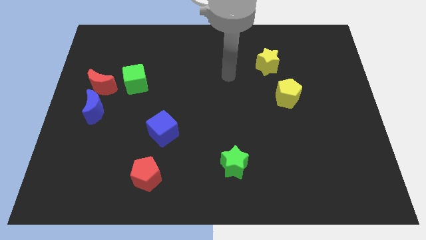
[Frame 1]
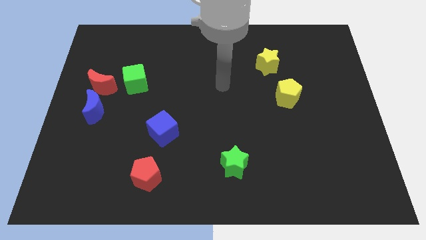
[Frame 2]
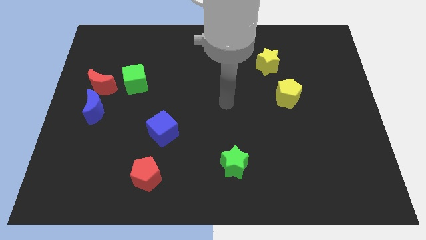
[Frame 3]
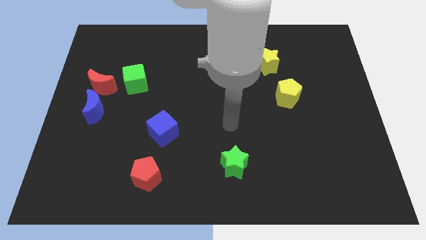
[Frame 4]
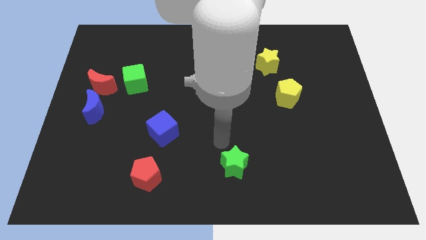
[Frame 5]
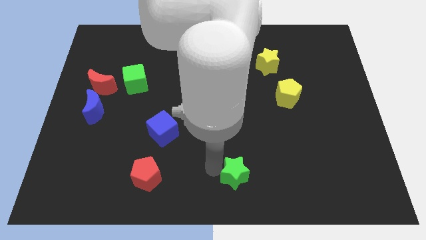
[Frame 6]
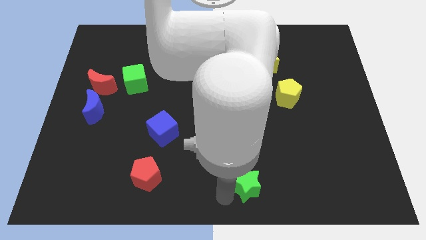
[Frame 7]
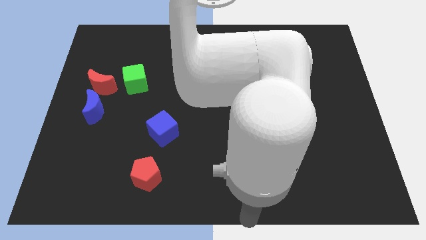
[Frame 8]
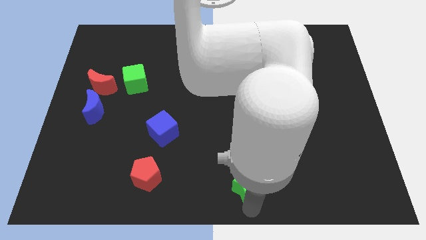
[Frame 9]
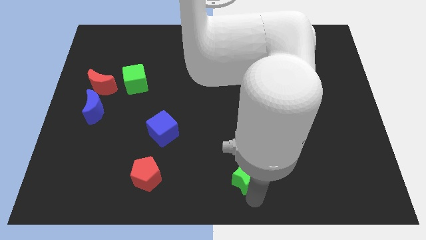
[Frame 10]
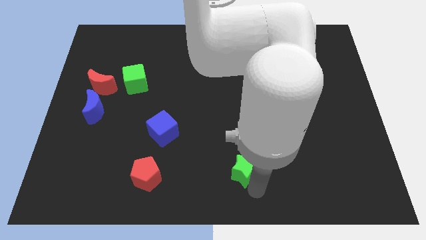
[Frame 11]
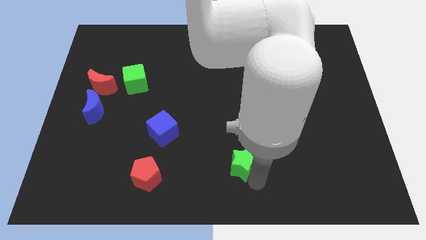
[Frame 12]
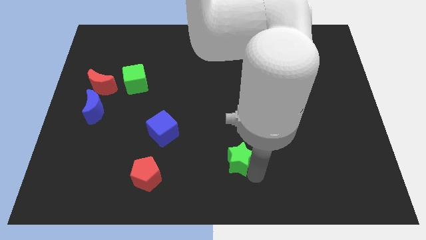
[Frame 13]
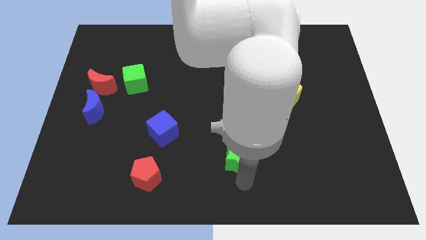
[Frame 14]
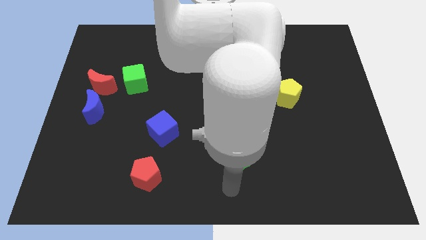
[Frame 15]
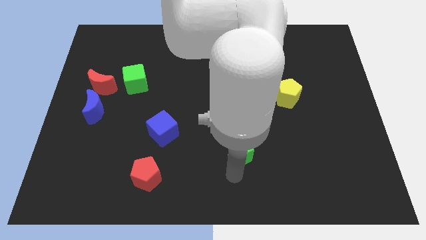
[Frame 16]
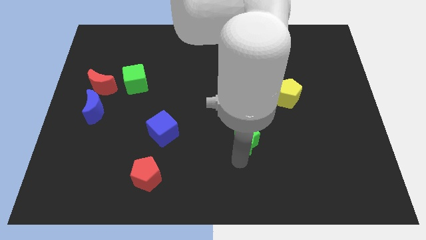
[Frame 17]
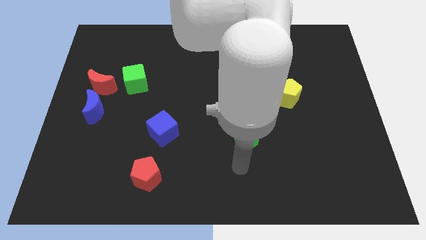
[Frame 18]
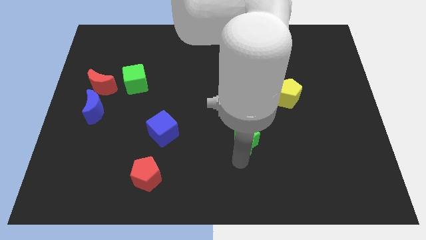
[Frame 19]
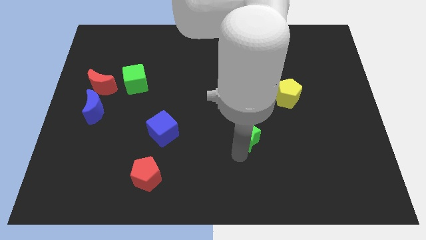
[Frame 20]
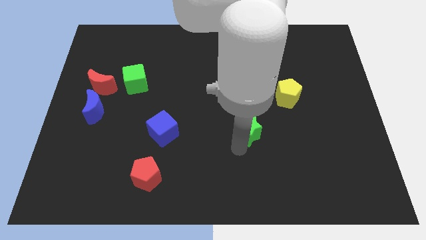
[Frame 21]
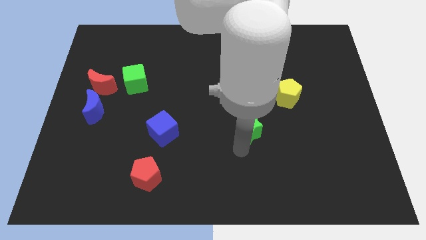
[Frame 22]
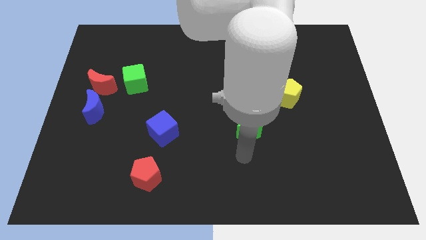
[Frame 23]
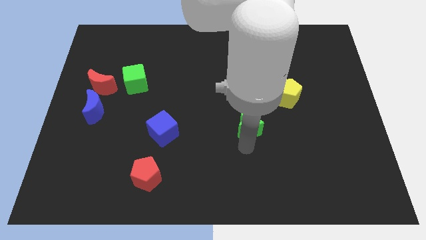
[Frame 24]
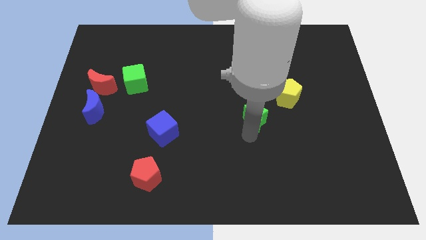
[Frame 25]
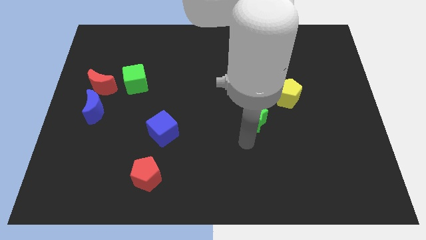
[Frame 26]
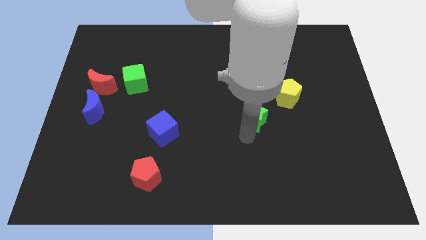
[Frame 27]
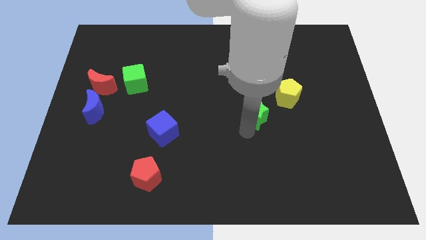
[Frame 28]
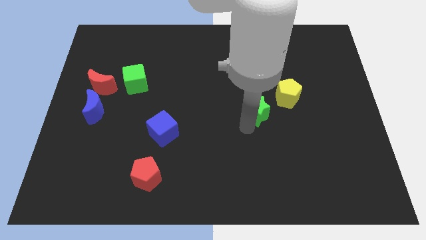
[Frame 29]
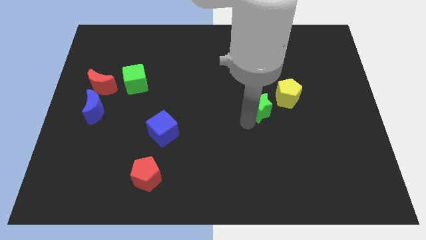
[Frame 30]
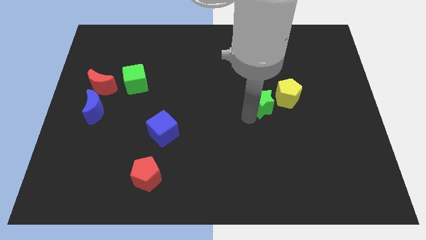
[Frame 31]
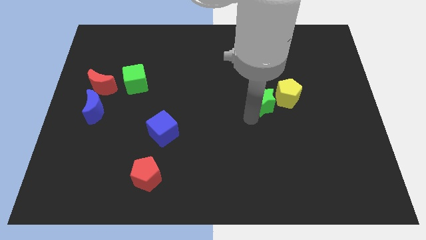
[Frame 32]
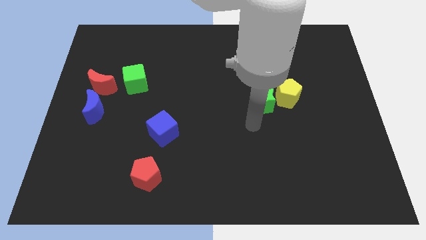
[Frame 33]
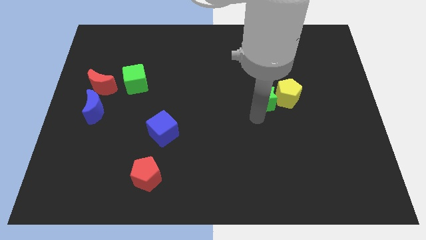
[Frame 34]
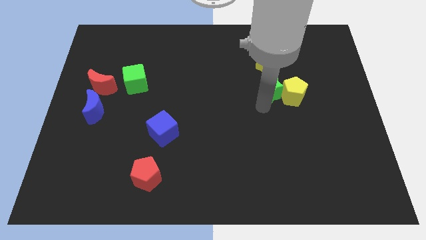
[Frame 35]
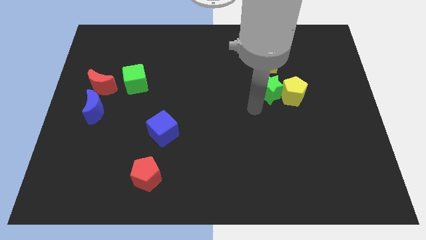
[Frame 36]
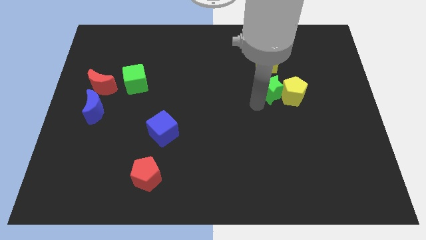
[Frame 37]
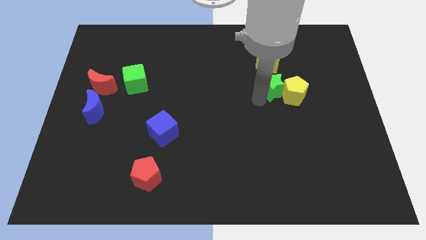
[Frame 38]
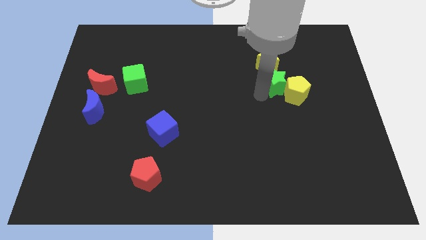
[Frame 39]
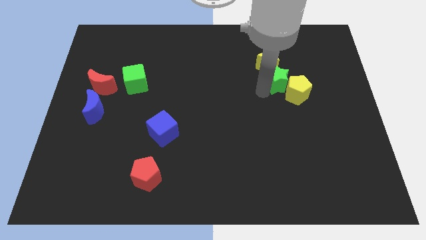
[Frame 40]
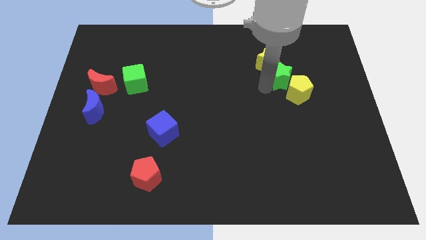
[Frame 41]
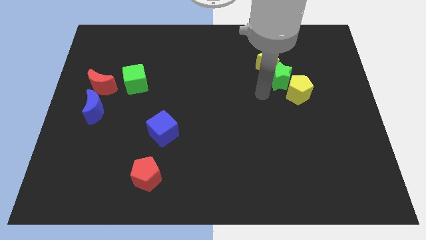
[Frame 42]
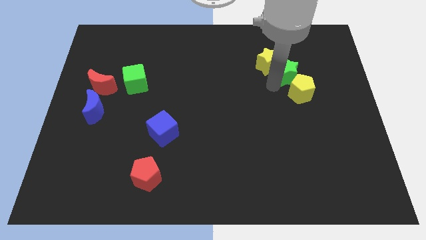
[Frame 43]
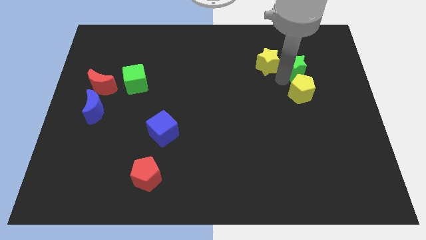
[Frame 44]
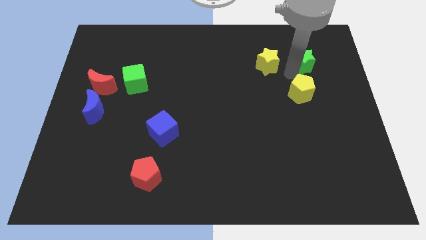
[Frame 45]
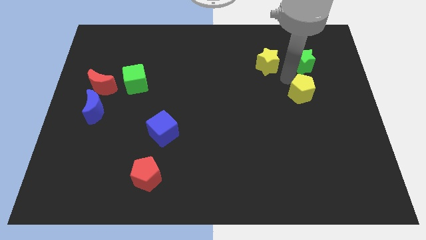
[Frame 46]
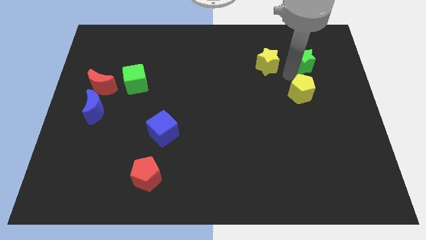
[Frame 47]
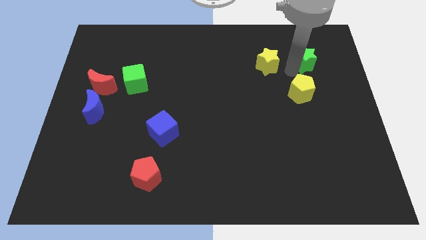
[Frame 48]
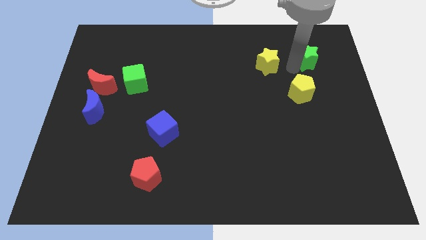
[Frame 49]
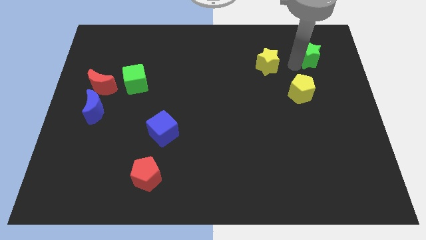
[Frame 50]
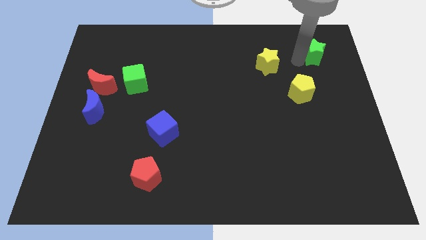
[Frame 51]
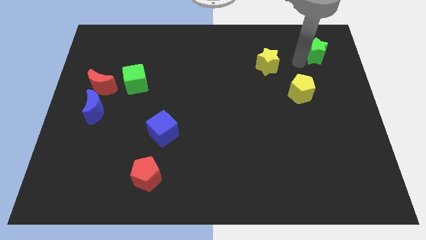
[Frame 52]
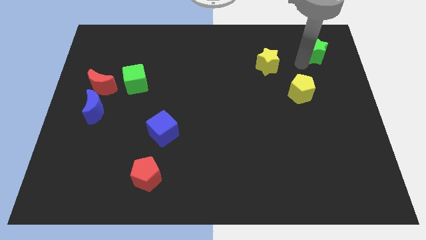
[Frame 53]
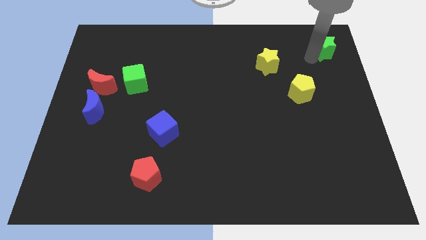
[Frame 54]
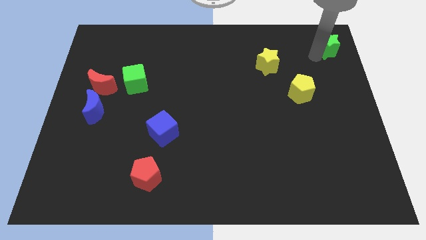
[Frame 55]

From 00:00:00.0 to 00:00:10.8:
push the green star to the top right corner
